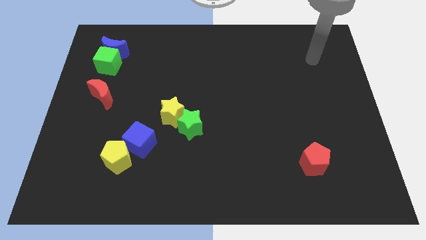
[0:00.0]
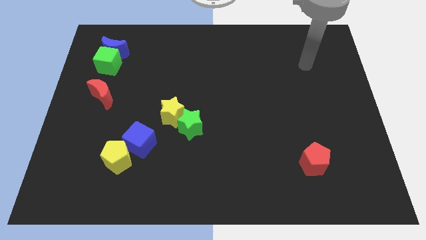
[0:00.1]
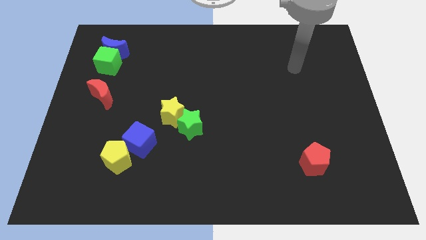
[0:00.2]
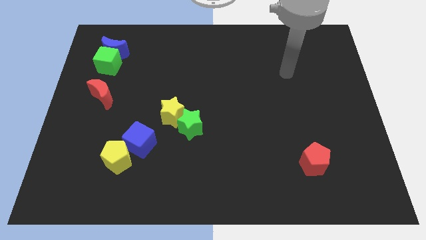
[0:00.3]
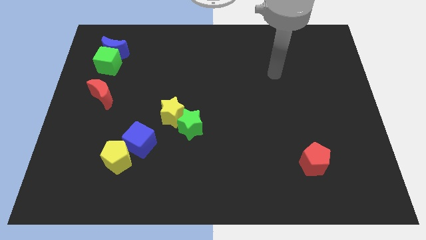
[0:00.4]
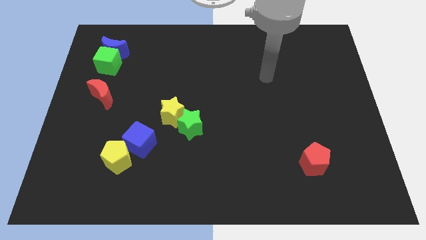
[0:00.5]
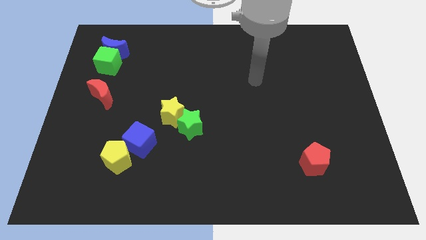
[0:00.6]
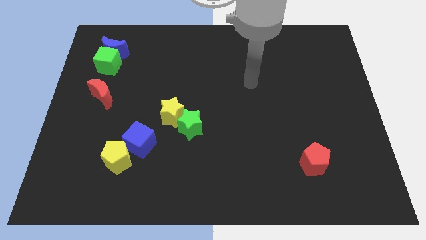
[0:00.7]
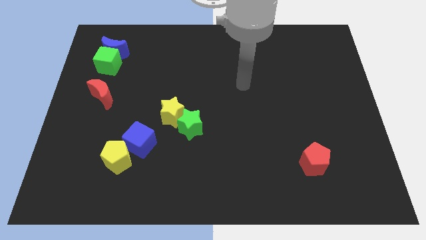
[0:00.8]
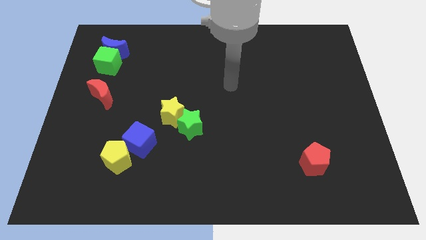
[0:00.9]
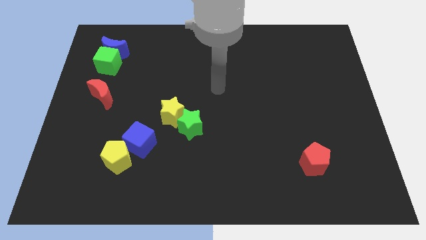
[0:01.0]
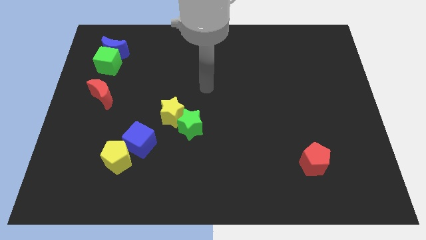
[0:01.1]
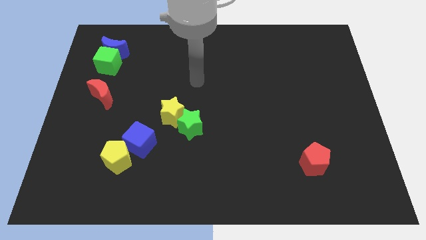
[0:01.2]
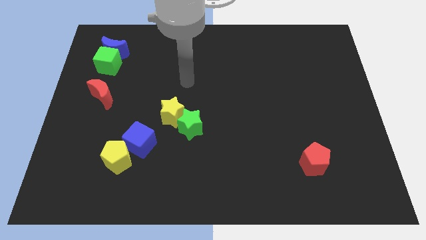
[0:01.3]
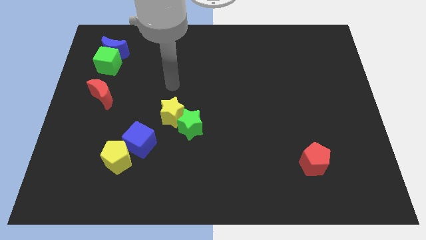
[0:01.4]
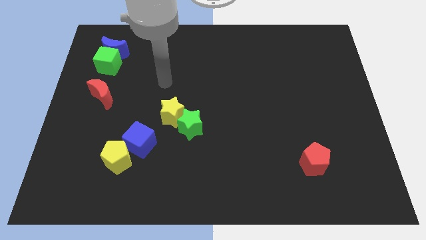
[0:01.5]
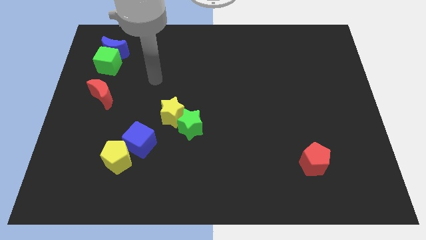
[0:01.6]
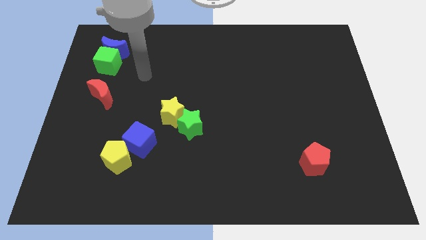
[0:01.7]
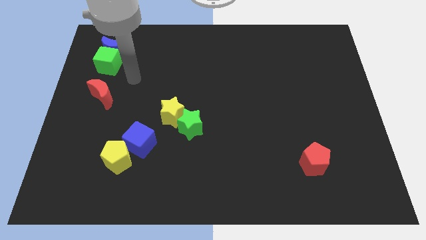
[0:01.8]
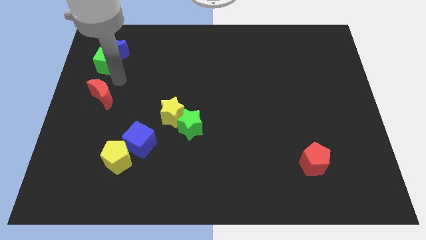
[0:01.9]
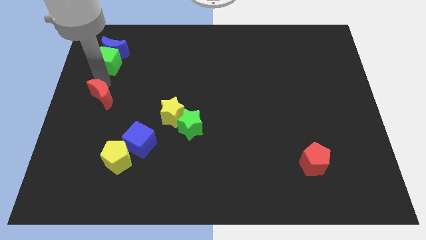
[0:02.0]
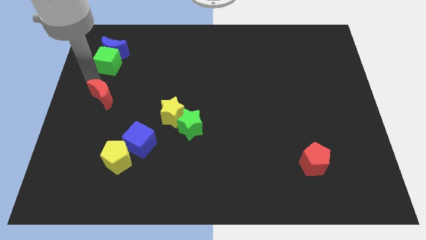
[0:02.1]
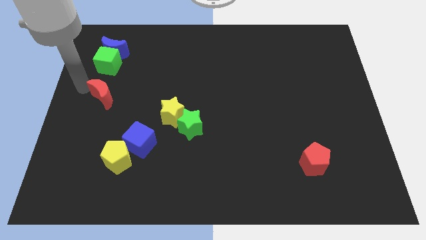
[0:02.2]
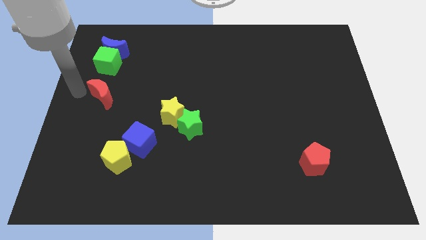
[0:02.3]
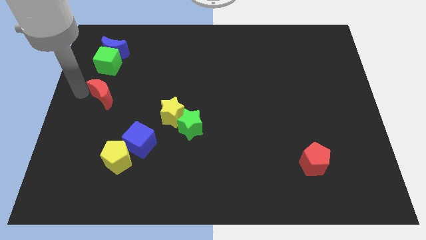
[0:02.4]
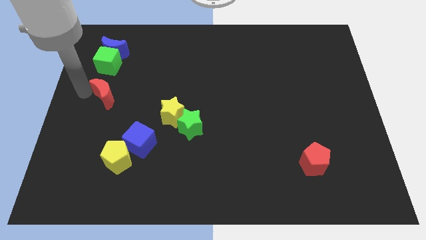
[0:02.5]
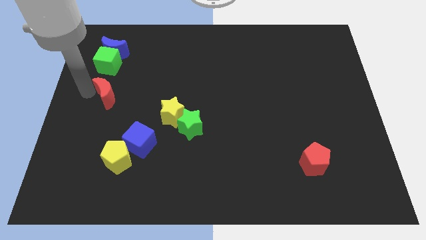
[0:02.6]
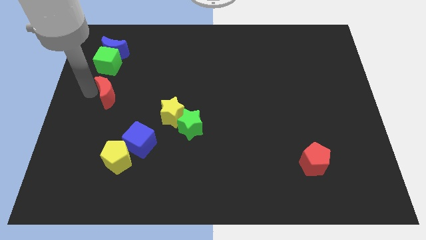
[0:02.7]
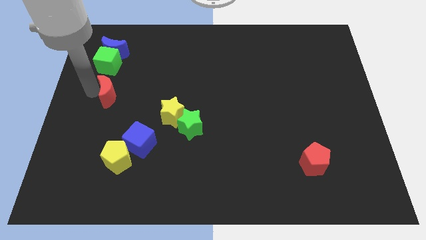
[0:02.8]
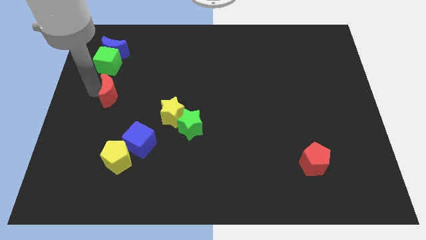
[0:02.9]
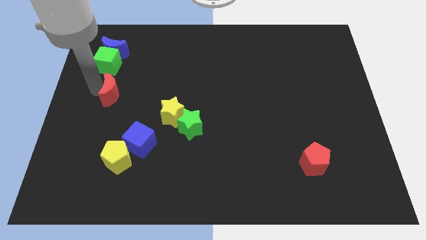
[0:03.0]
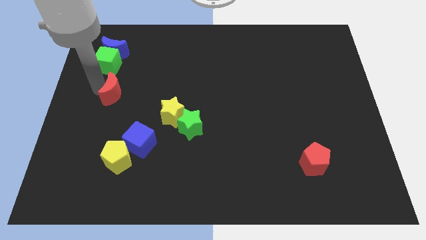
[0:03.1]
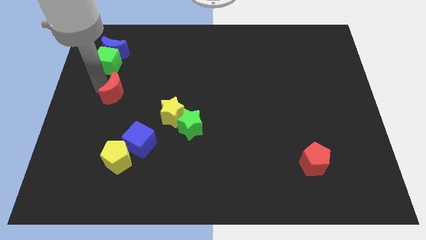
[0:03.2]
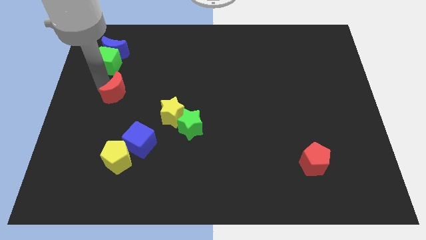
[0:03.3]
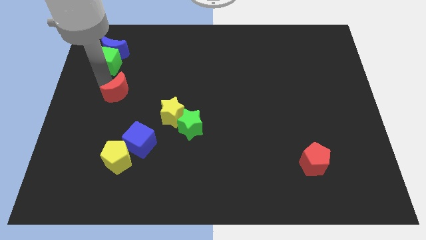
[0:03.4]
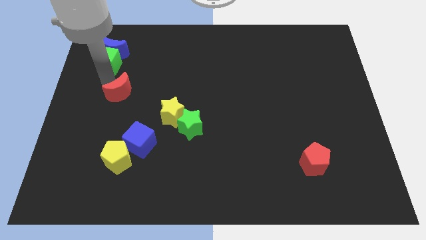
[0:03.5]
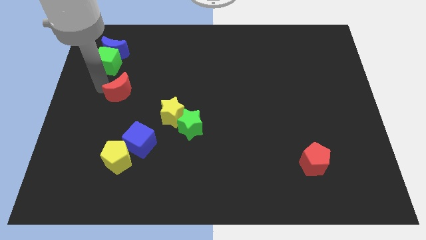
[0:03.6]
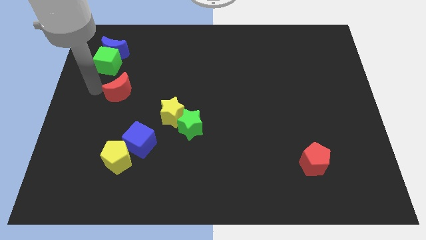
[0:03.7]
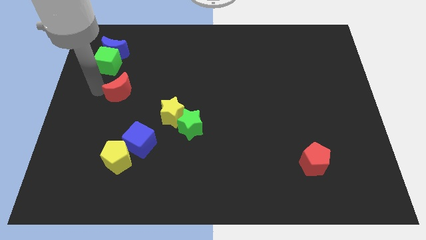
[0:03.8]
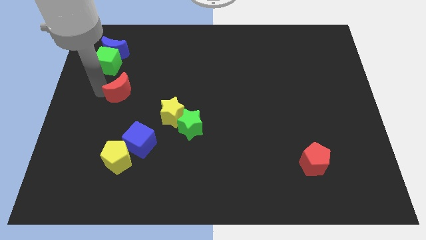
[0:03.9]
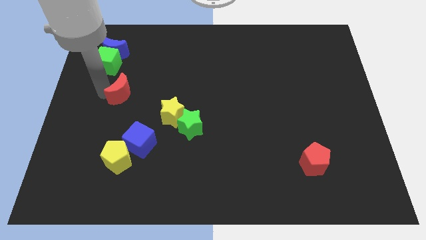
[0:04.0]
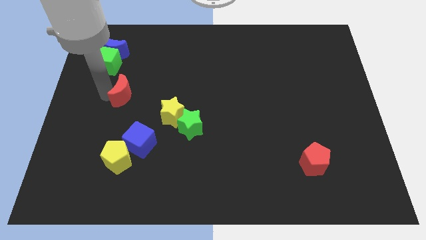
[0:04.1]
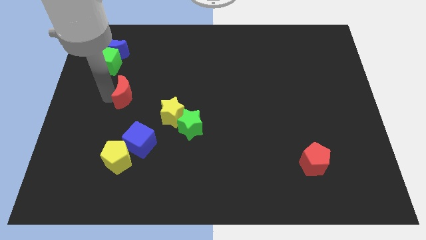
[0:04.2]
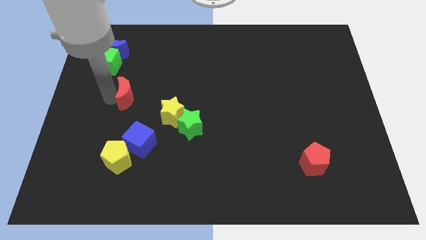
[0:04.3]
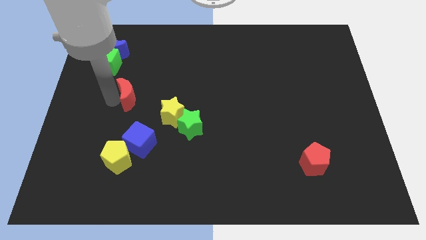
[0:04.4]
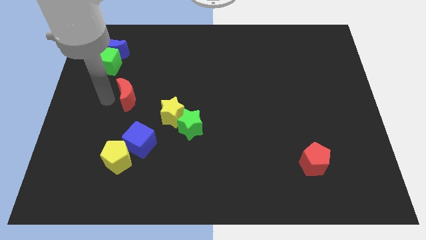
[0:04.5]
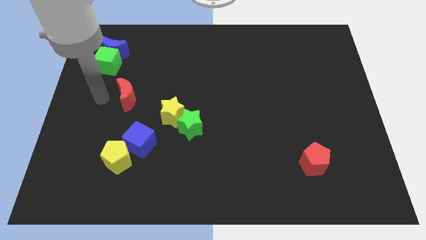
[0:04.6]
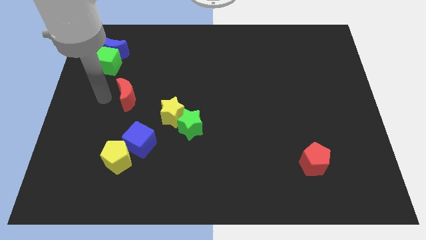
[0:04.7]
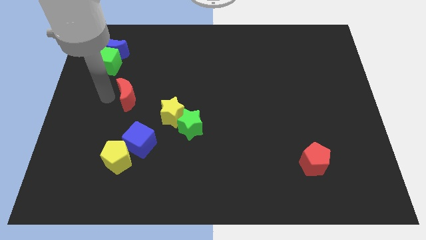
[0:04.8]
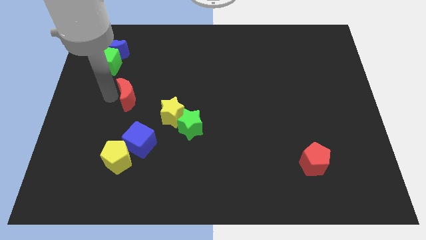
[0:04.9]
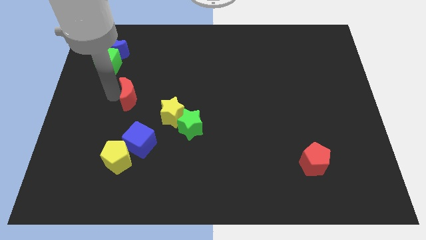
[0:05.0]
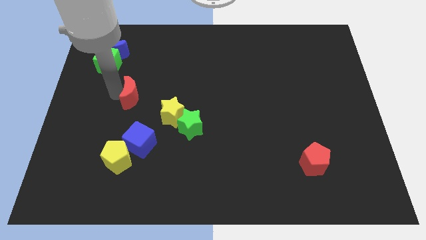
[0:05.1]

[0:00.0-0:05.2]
push the red moon a bit to the right

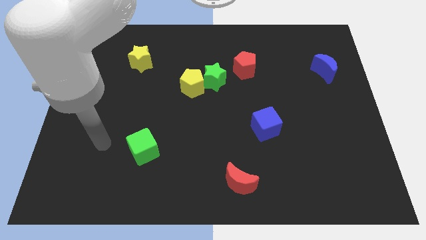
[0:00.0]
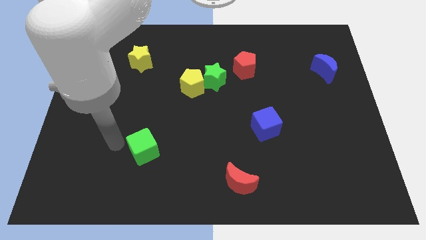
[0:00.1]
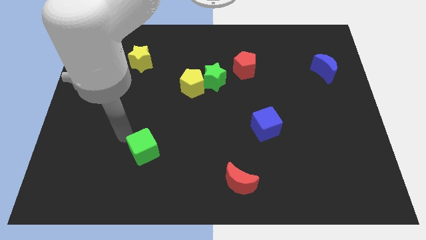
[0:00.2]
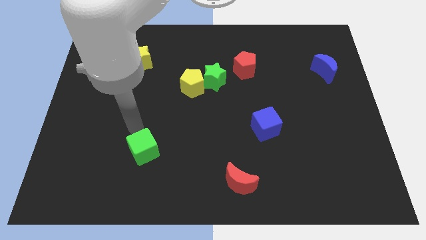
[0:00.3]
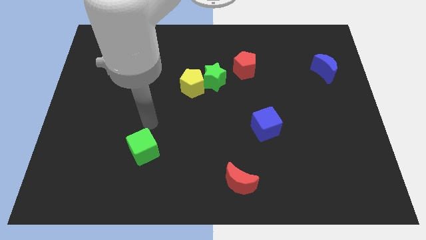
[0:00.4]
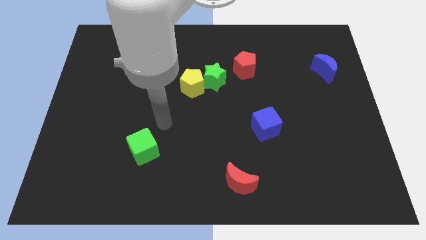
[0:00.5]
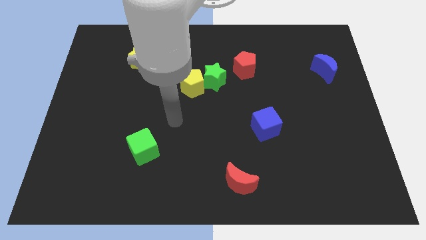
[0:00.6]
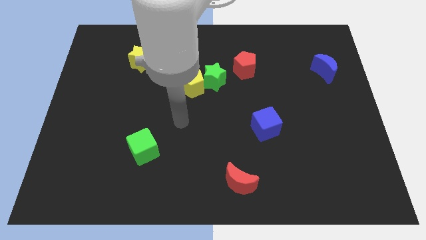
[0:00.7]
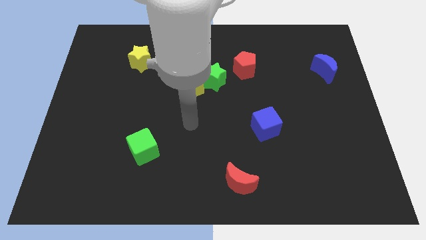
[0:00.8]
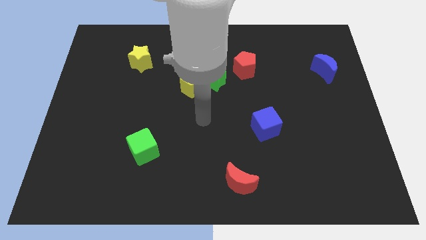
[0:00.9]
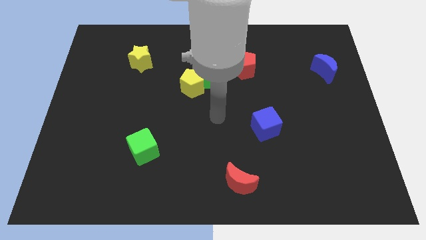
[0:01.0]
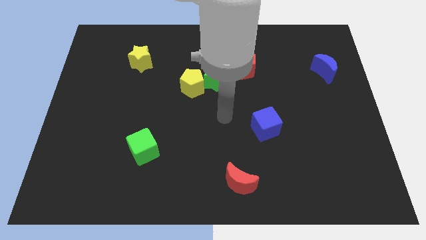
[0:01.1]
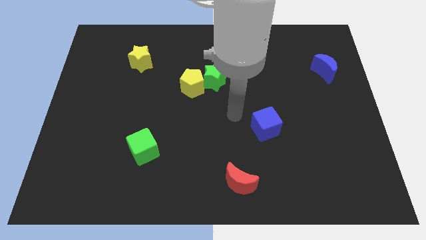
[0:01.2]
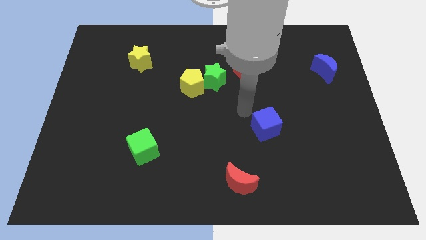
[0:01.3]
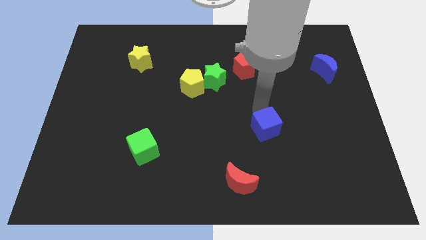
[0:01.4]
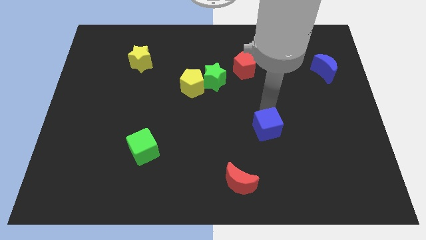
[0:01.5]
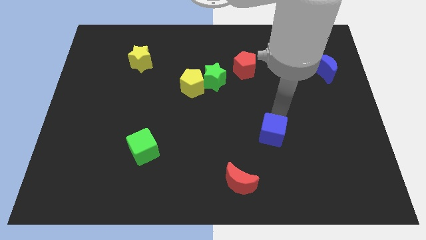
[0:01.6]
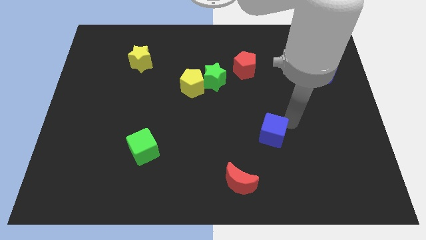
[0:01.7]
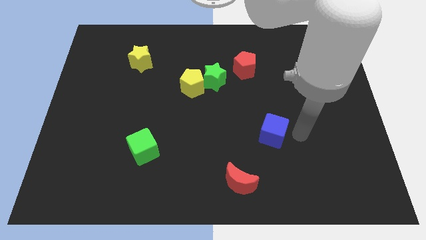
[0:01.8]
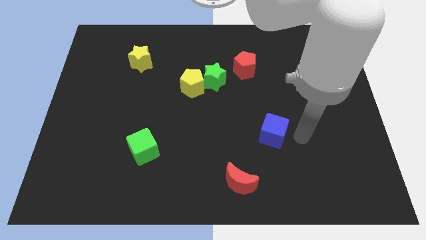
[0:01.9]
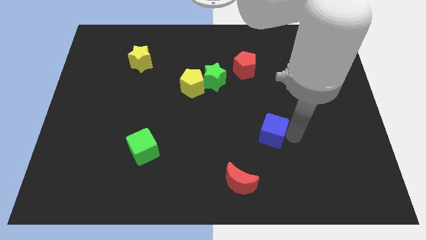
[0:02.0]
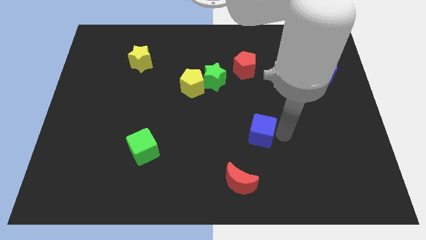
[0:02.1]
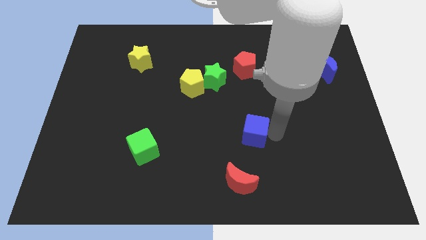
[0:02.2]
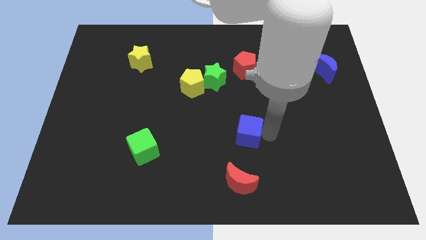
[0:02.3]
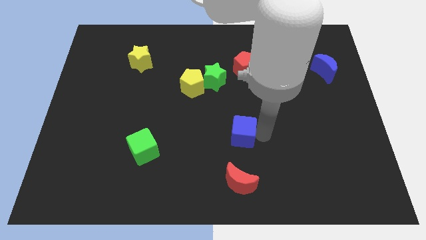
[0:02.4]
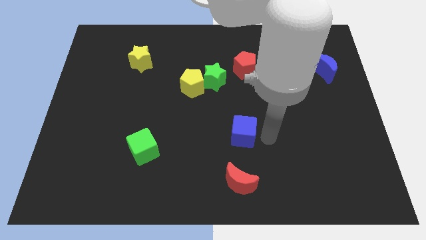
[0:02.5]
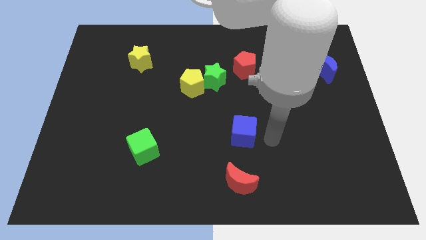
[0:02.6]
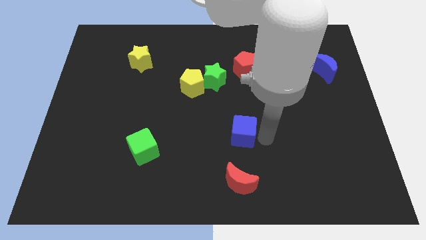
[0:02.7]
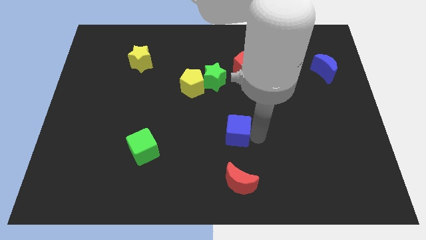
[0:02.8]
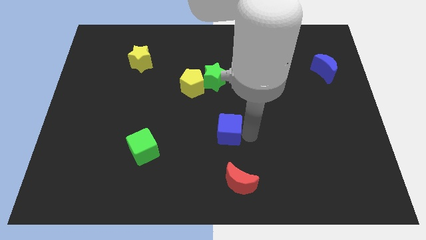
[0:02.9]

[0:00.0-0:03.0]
push the blue cube somewhat to the left
